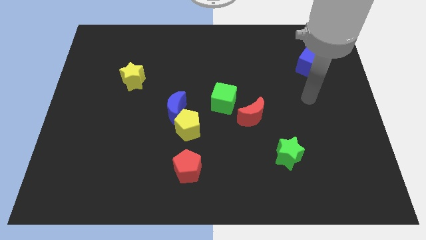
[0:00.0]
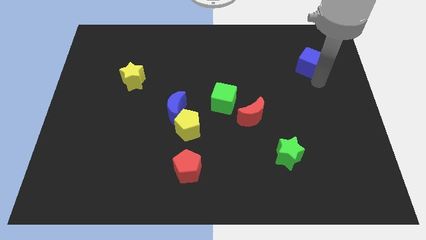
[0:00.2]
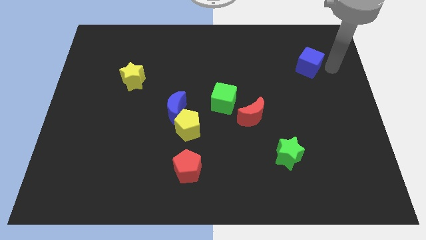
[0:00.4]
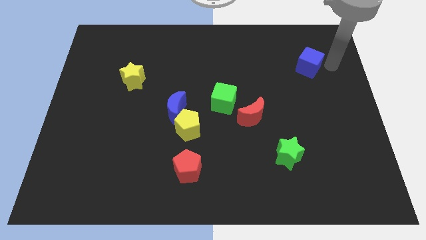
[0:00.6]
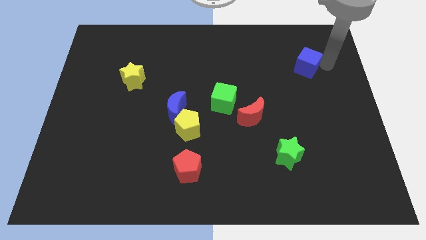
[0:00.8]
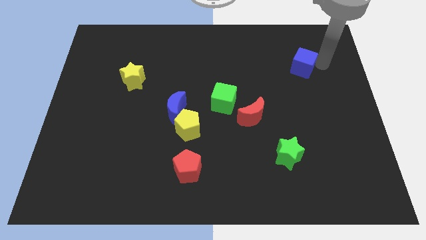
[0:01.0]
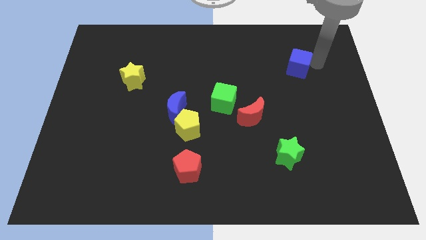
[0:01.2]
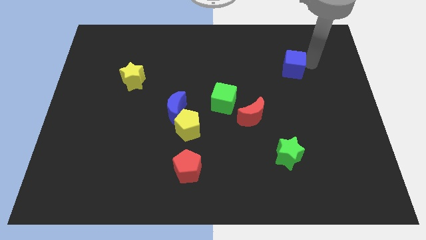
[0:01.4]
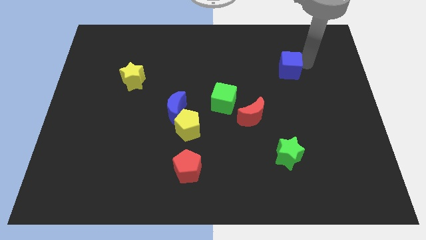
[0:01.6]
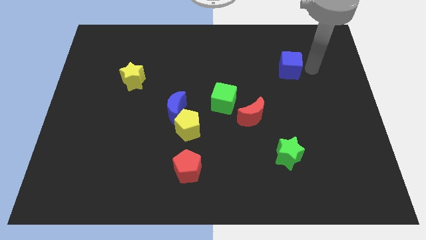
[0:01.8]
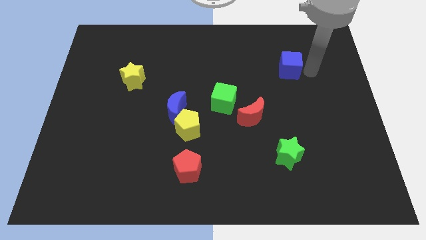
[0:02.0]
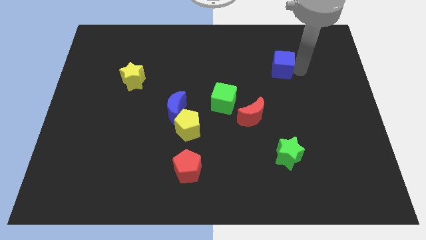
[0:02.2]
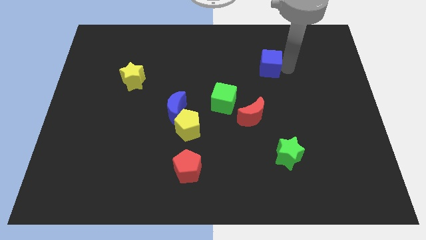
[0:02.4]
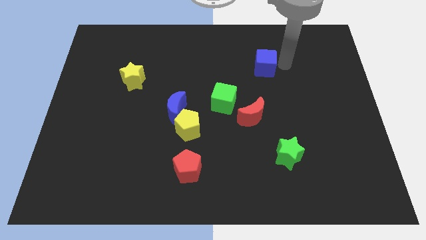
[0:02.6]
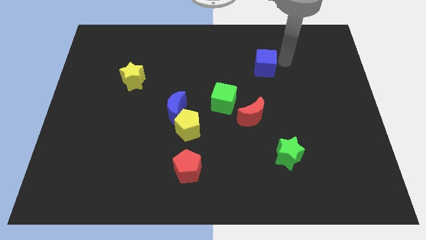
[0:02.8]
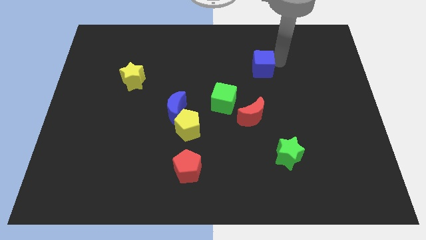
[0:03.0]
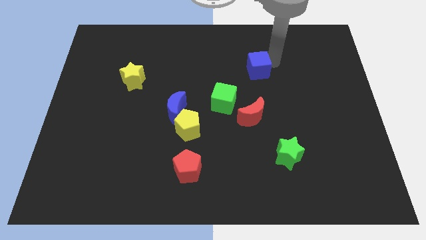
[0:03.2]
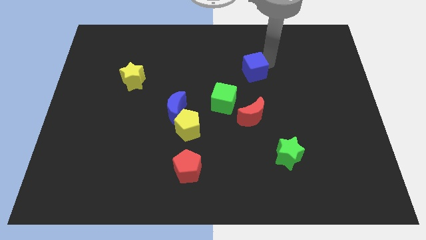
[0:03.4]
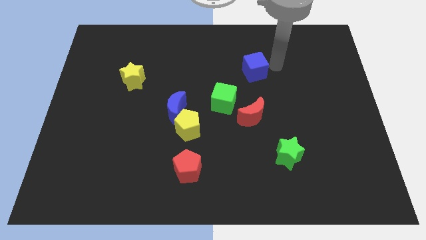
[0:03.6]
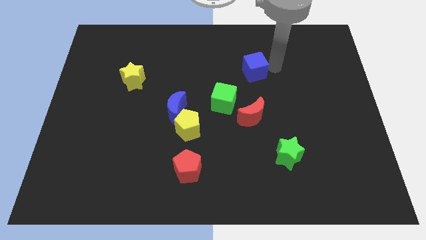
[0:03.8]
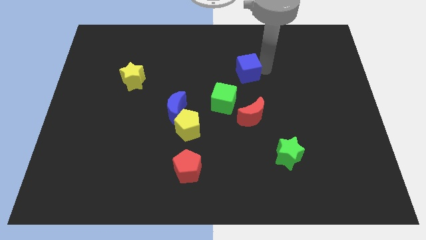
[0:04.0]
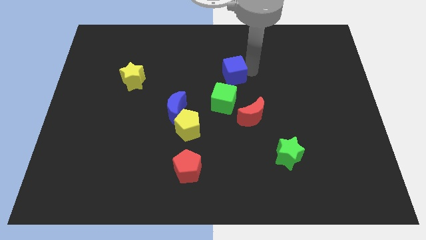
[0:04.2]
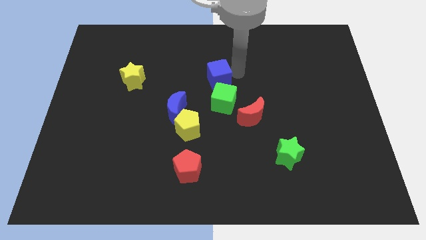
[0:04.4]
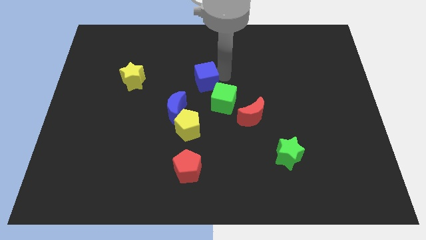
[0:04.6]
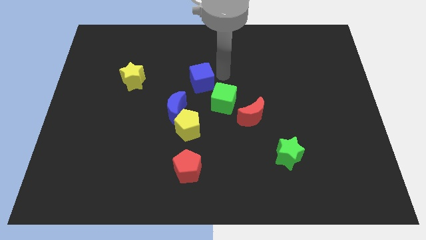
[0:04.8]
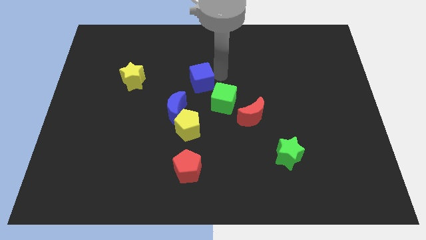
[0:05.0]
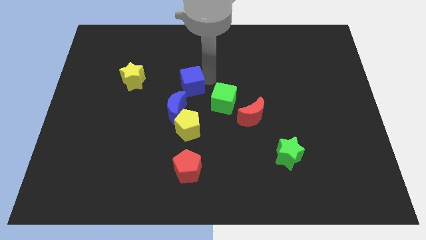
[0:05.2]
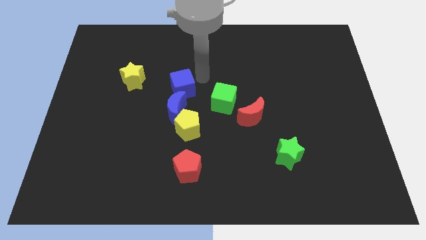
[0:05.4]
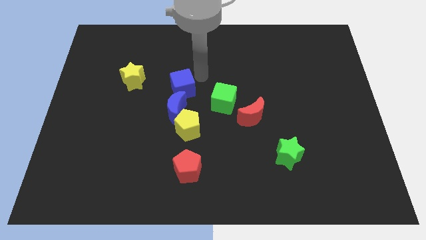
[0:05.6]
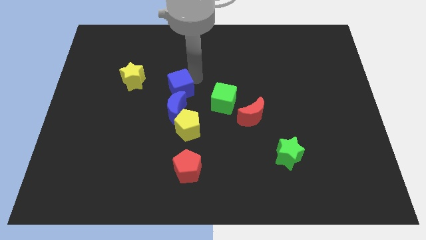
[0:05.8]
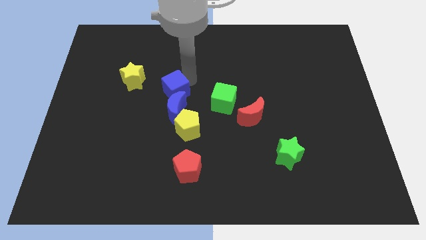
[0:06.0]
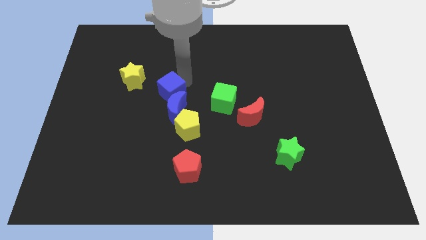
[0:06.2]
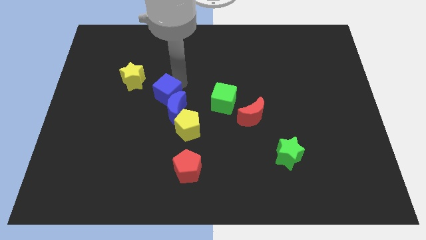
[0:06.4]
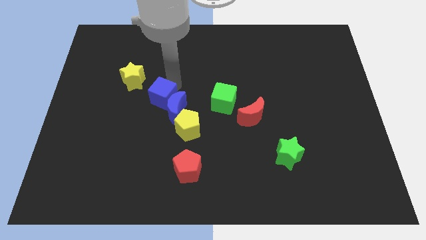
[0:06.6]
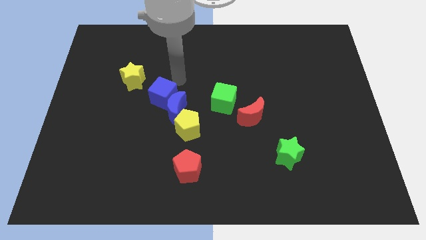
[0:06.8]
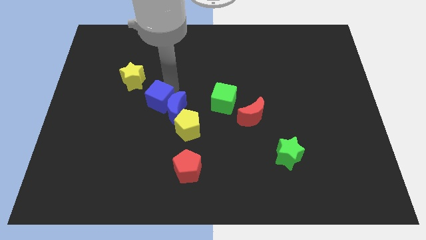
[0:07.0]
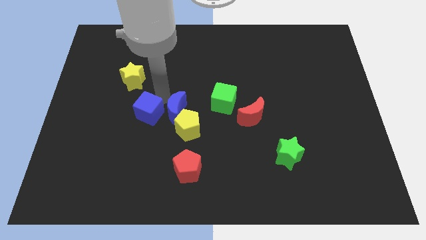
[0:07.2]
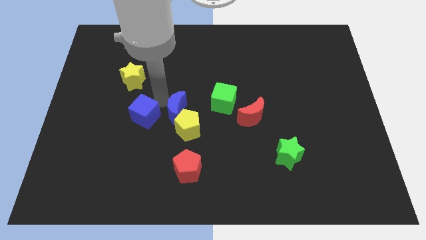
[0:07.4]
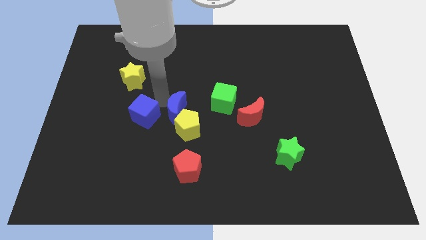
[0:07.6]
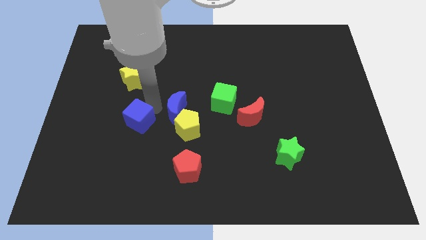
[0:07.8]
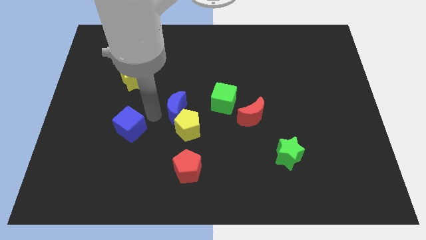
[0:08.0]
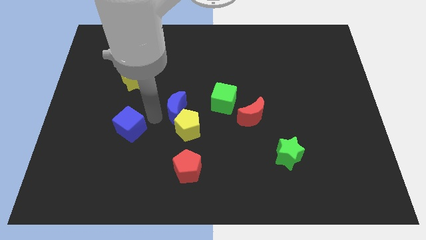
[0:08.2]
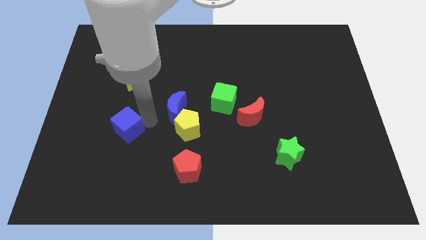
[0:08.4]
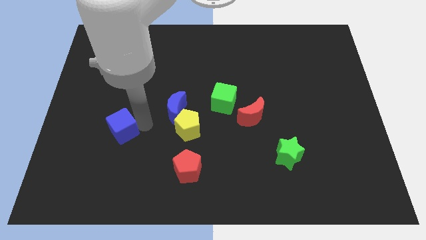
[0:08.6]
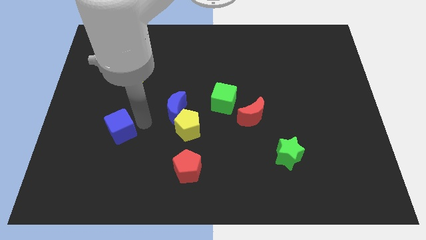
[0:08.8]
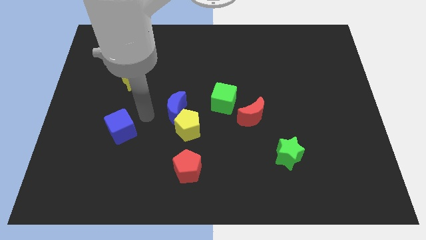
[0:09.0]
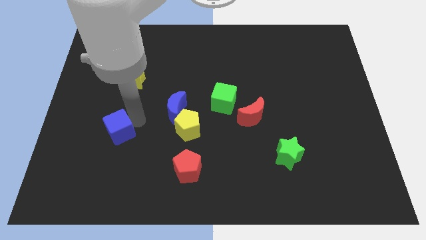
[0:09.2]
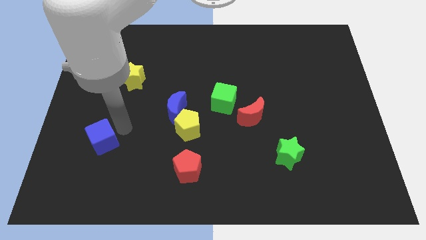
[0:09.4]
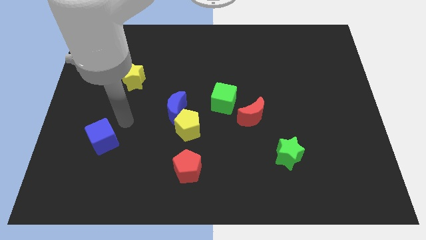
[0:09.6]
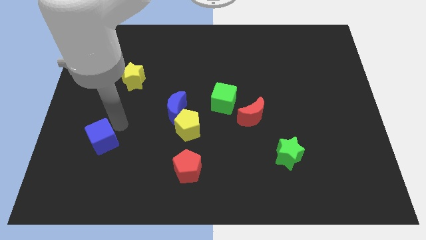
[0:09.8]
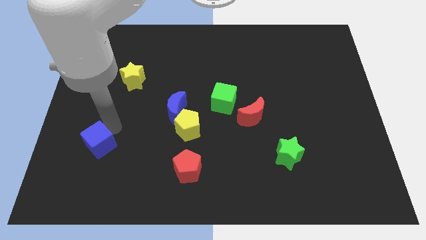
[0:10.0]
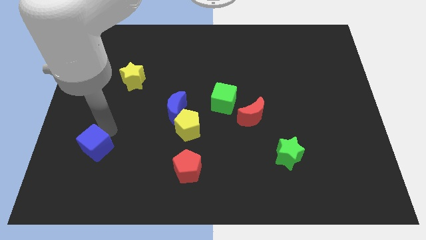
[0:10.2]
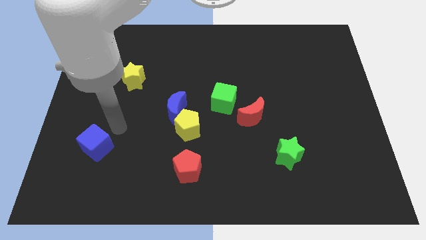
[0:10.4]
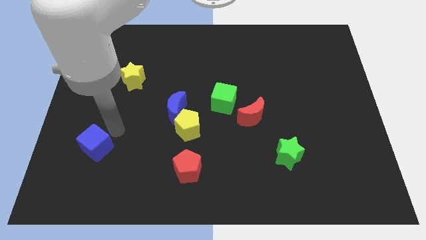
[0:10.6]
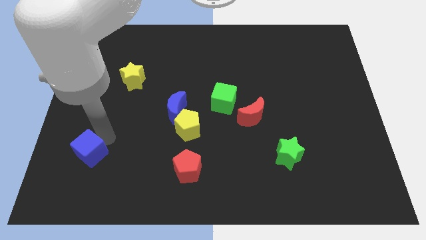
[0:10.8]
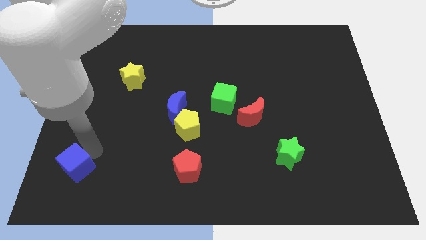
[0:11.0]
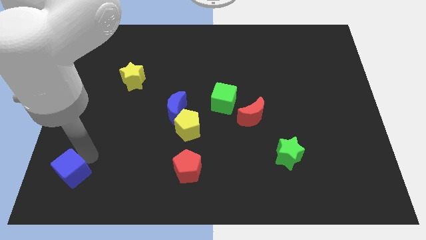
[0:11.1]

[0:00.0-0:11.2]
push the blue cube to the bottom left

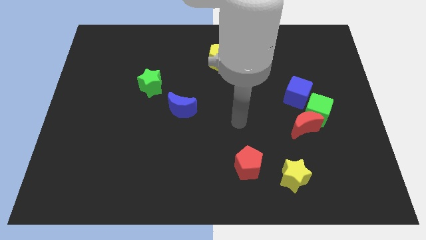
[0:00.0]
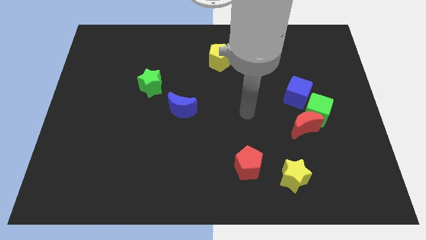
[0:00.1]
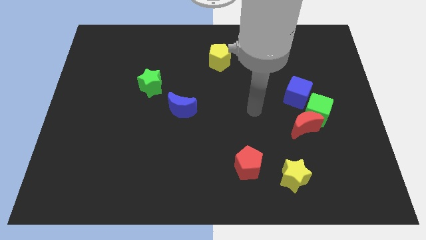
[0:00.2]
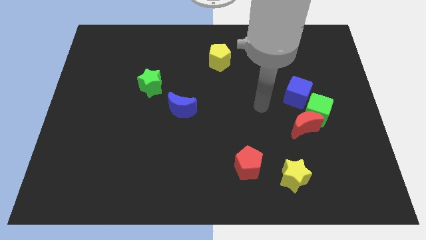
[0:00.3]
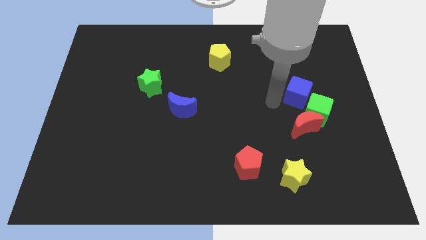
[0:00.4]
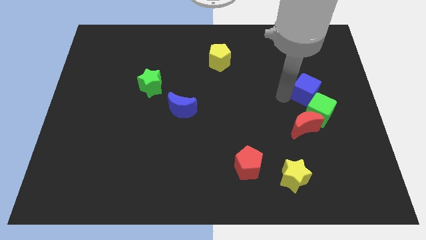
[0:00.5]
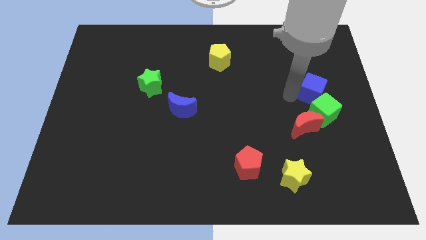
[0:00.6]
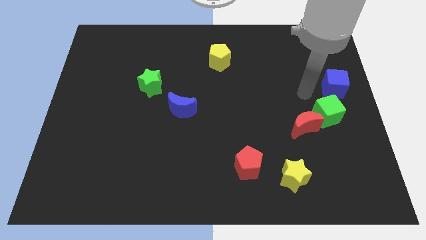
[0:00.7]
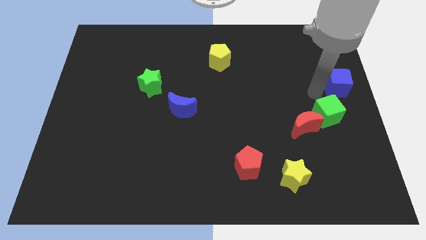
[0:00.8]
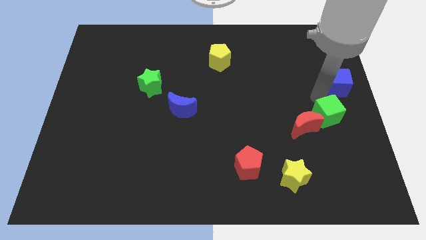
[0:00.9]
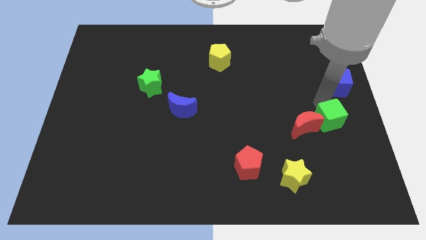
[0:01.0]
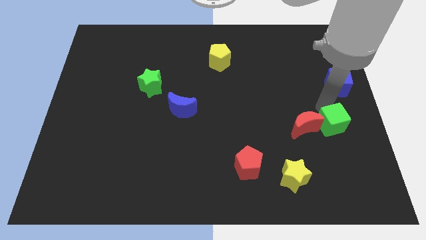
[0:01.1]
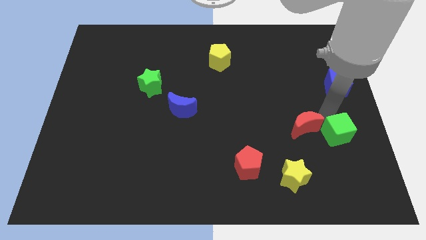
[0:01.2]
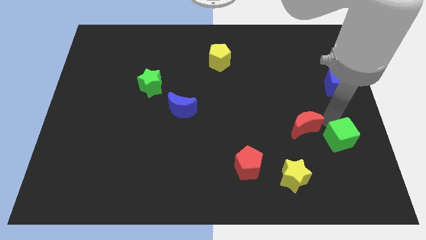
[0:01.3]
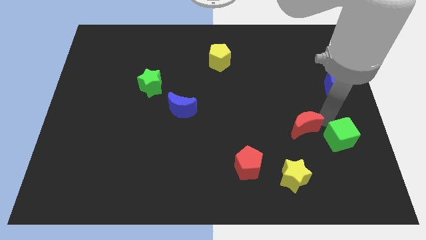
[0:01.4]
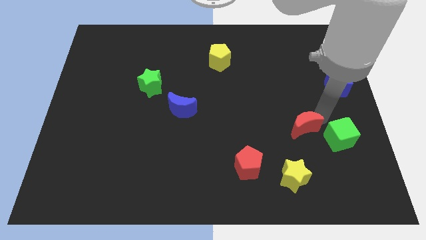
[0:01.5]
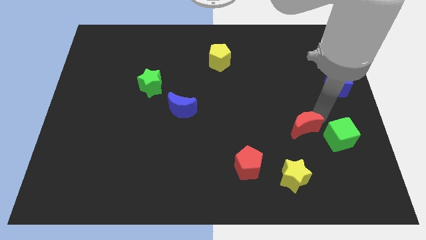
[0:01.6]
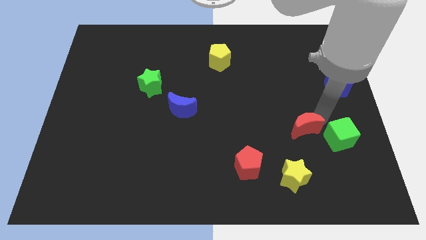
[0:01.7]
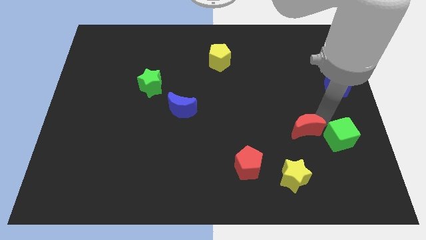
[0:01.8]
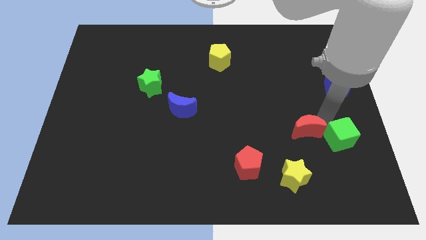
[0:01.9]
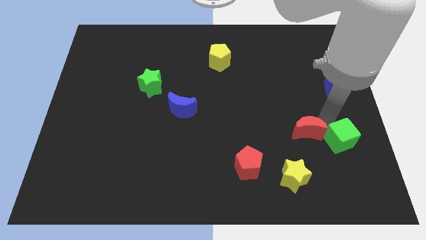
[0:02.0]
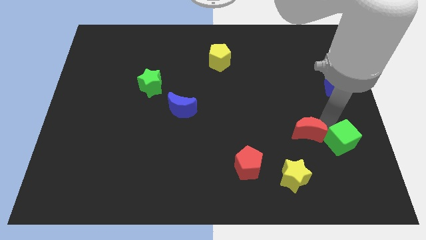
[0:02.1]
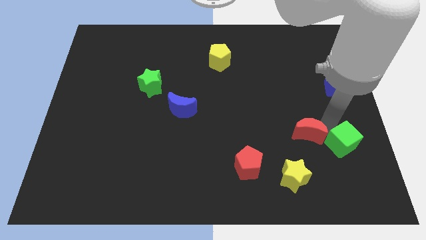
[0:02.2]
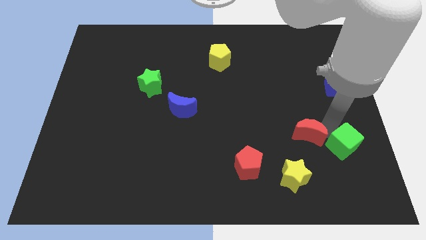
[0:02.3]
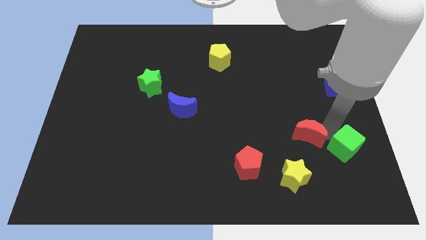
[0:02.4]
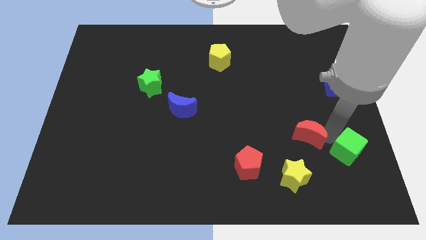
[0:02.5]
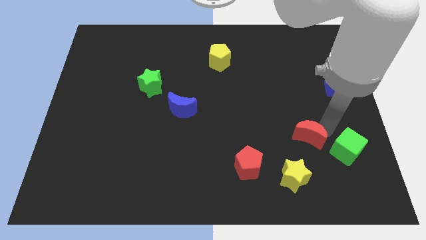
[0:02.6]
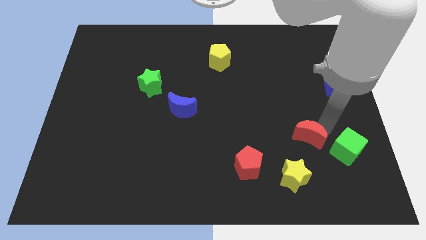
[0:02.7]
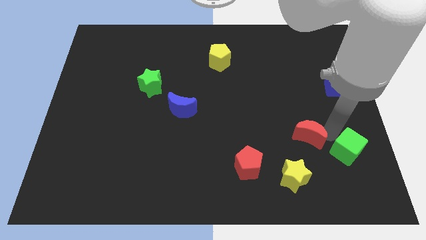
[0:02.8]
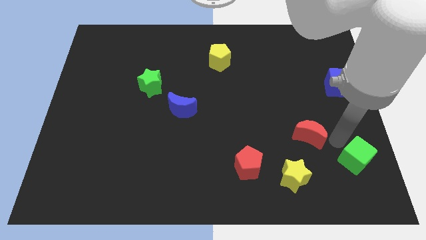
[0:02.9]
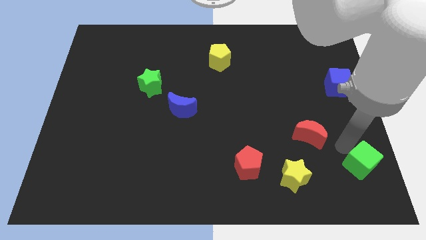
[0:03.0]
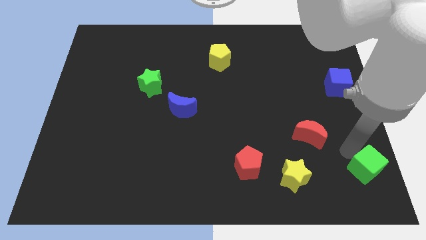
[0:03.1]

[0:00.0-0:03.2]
put the green cube to the bottom right corner
